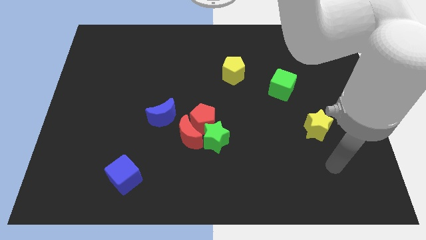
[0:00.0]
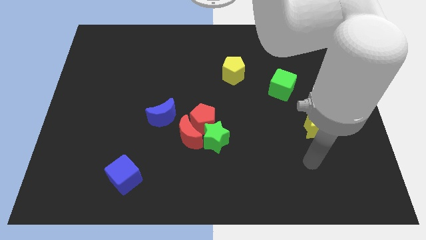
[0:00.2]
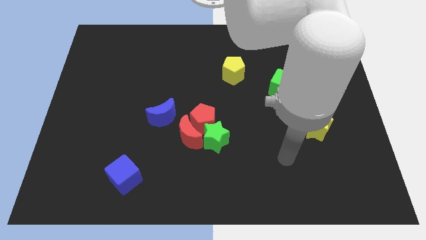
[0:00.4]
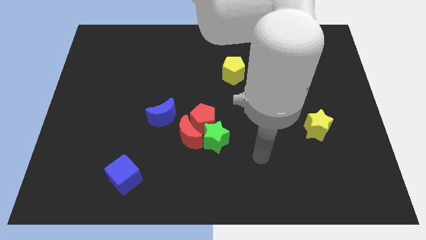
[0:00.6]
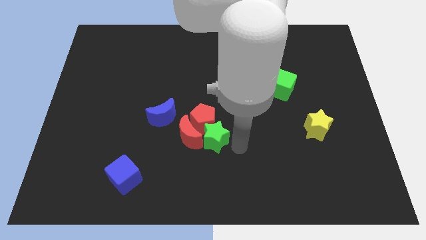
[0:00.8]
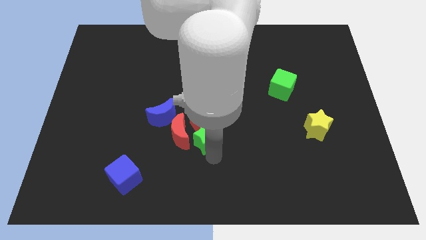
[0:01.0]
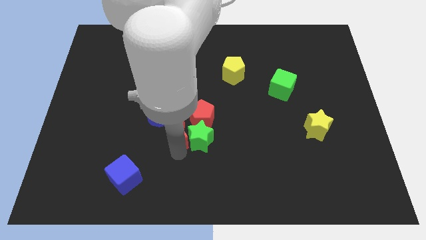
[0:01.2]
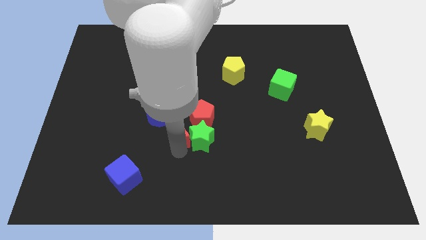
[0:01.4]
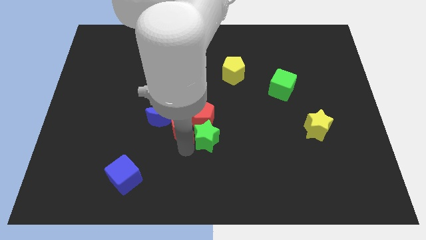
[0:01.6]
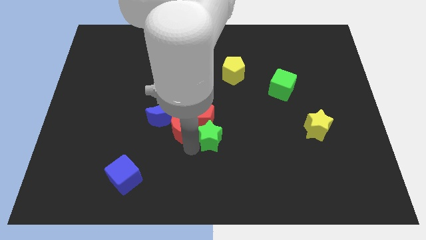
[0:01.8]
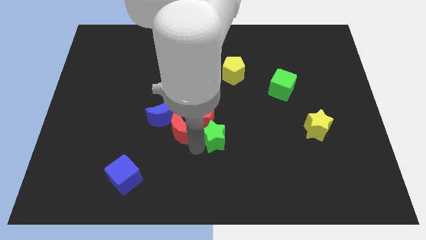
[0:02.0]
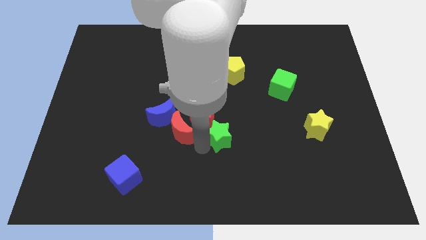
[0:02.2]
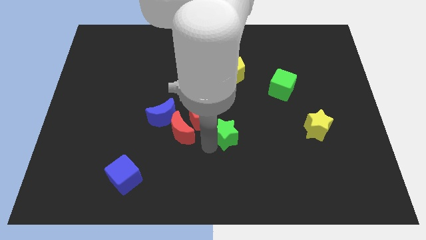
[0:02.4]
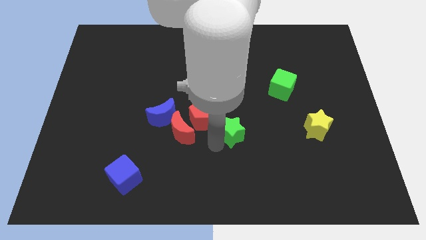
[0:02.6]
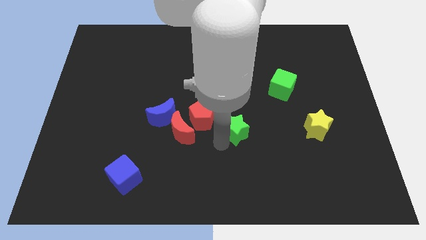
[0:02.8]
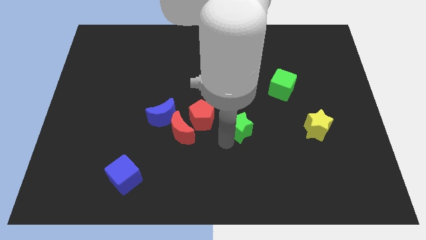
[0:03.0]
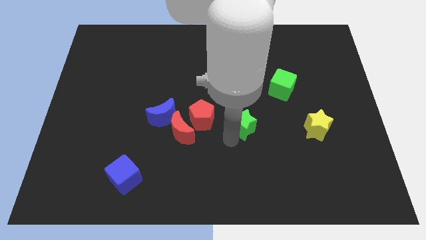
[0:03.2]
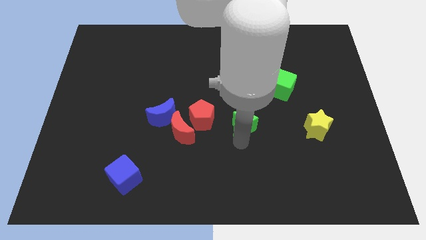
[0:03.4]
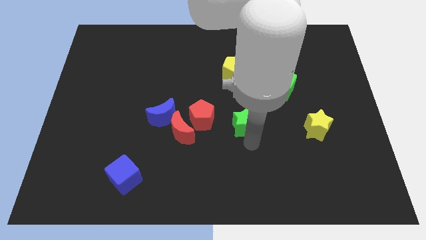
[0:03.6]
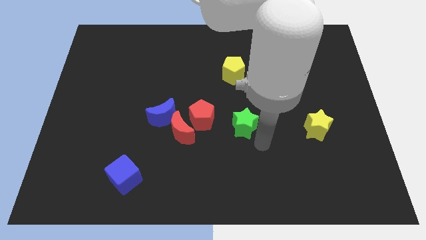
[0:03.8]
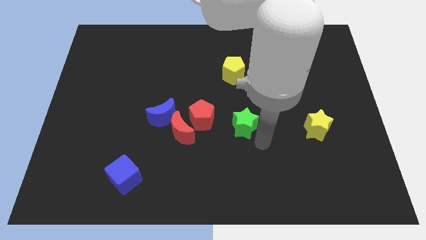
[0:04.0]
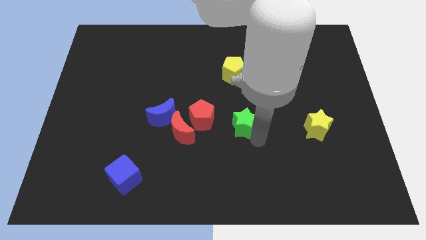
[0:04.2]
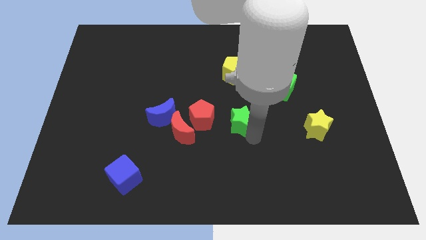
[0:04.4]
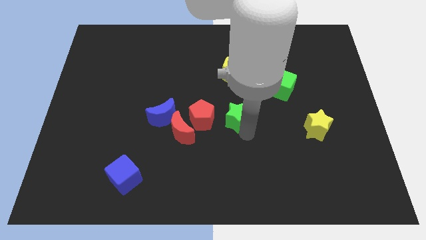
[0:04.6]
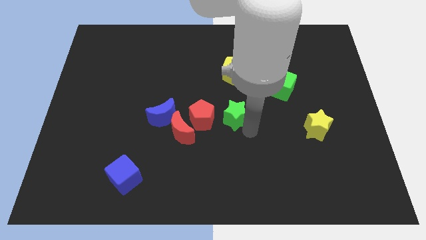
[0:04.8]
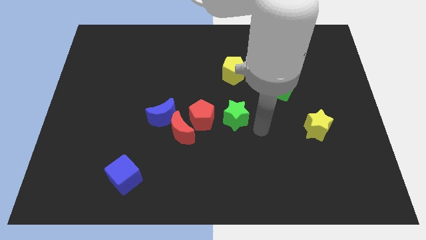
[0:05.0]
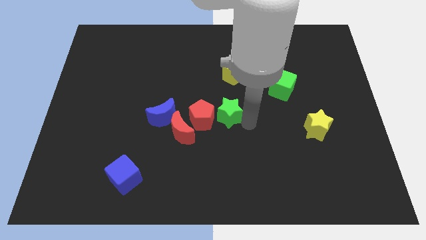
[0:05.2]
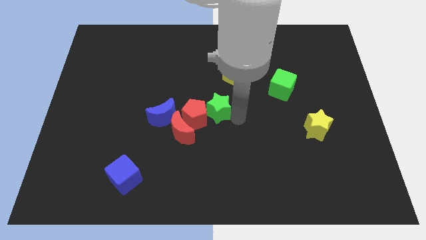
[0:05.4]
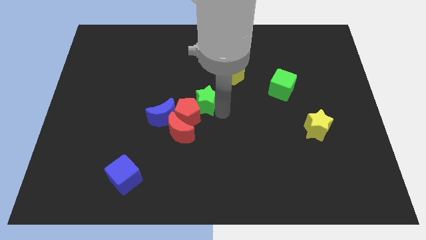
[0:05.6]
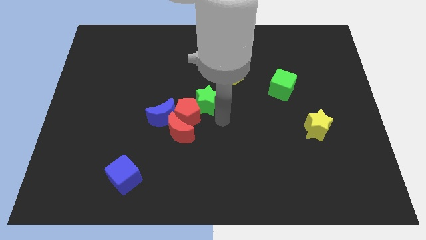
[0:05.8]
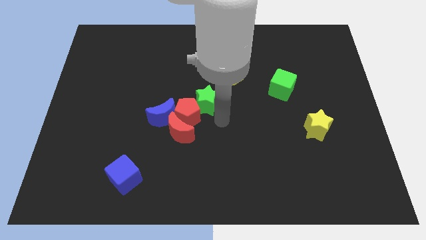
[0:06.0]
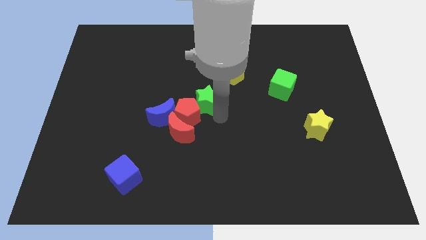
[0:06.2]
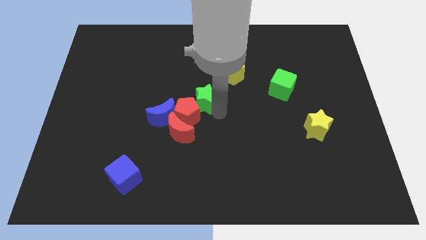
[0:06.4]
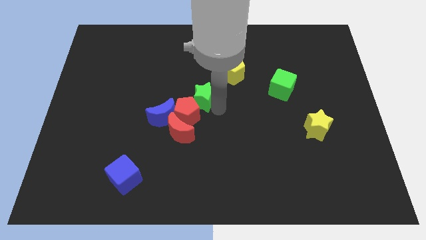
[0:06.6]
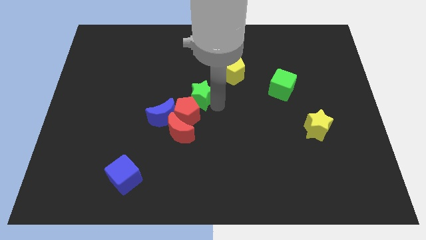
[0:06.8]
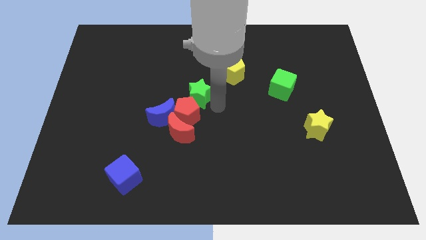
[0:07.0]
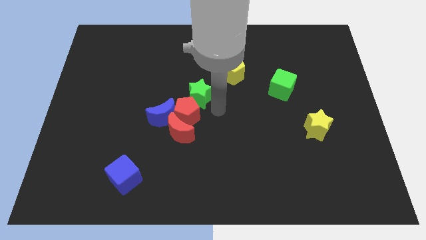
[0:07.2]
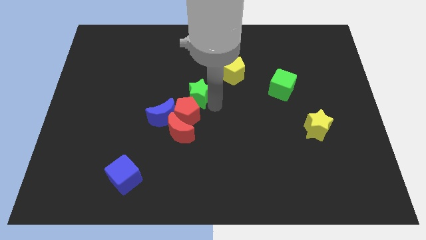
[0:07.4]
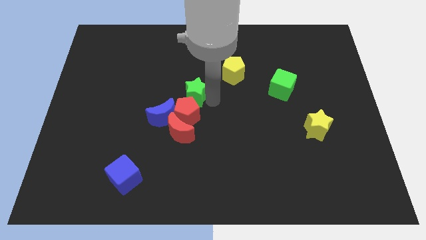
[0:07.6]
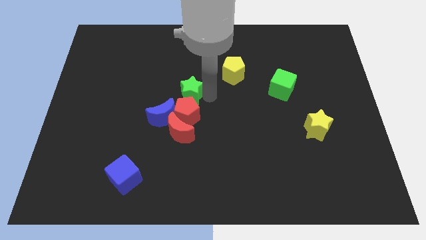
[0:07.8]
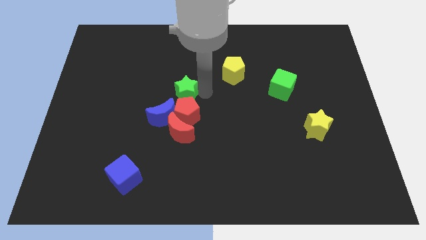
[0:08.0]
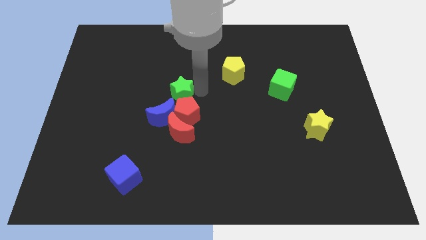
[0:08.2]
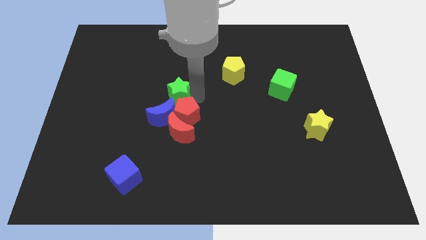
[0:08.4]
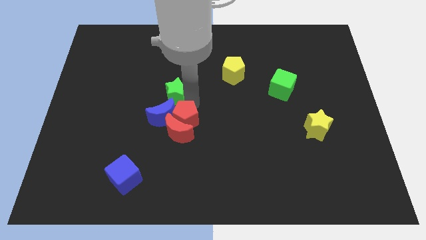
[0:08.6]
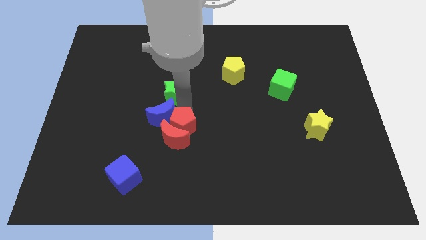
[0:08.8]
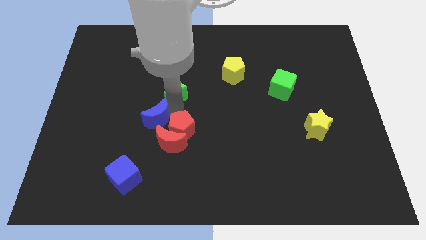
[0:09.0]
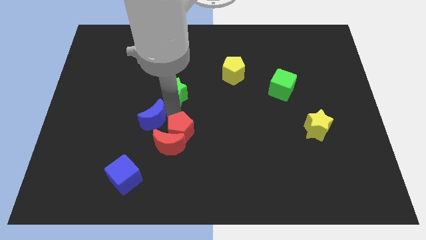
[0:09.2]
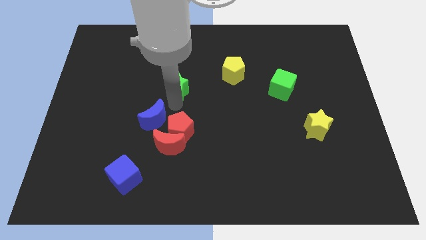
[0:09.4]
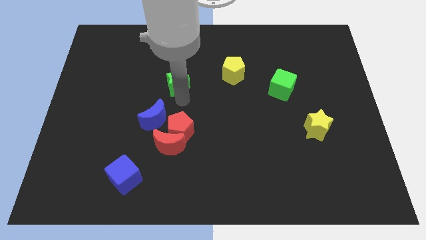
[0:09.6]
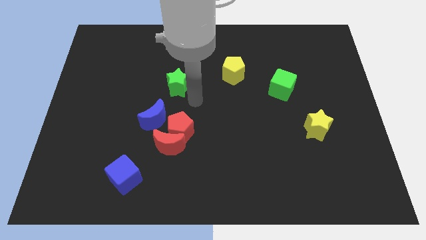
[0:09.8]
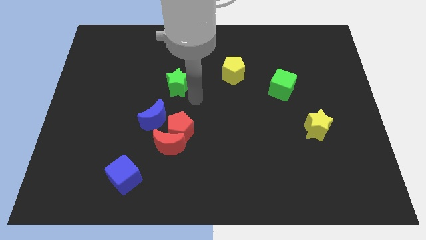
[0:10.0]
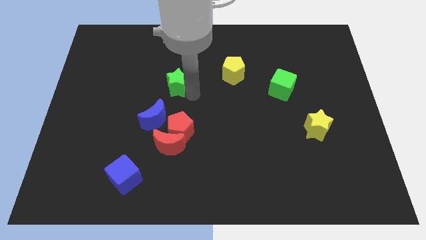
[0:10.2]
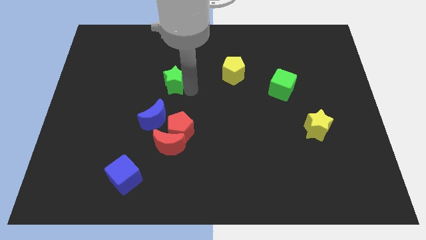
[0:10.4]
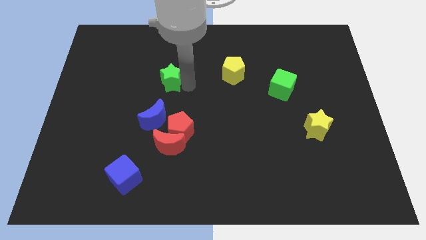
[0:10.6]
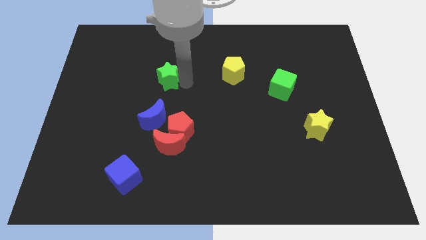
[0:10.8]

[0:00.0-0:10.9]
move the green star diagonally upwards and left

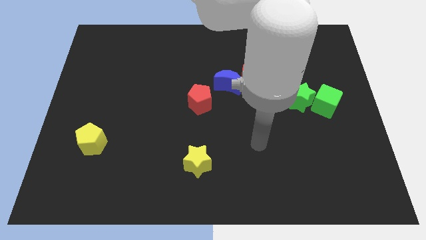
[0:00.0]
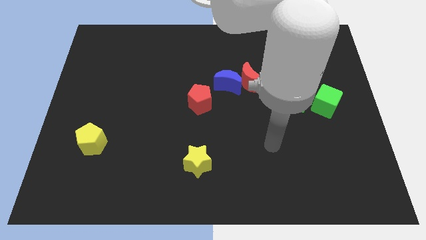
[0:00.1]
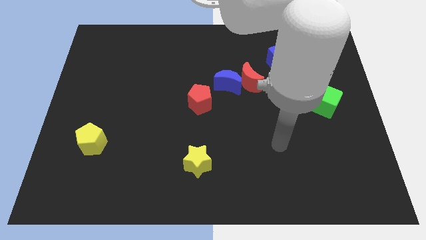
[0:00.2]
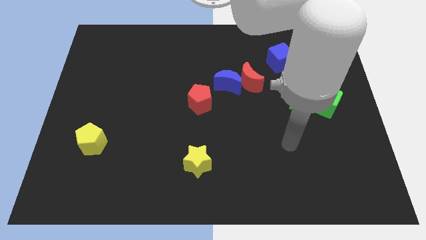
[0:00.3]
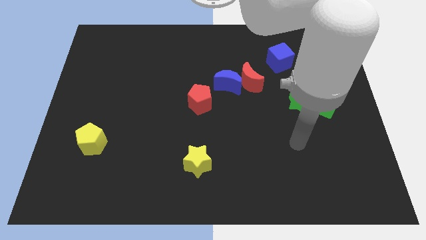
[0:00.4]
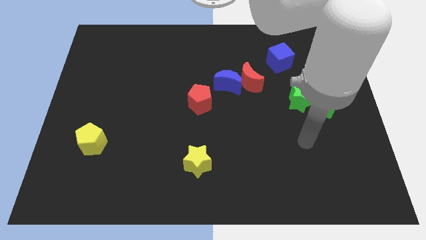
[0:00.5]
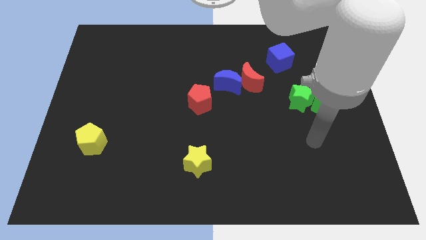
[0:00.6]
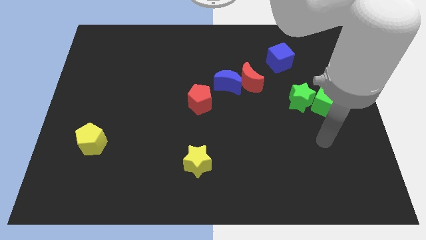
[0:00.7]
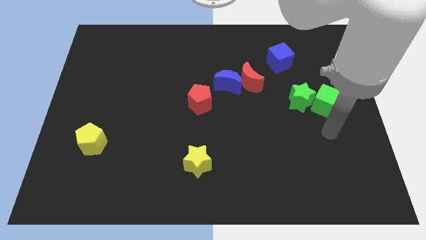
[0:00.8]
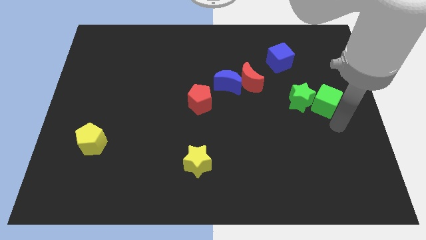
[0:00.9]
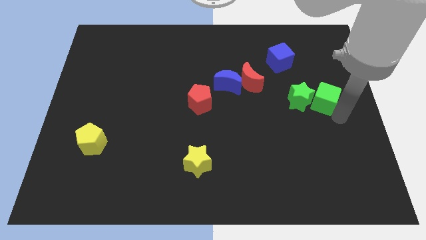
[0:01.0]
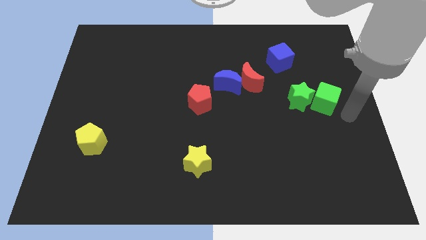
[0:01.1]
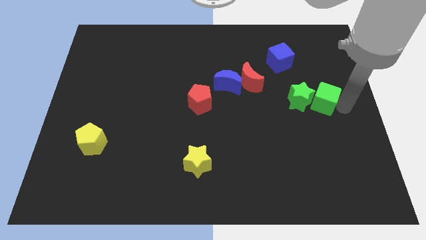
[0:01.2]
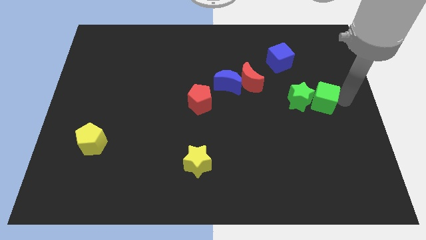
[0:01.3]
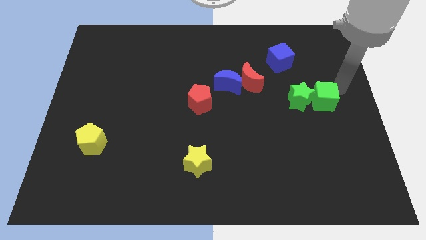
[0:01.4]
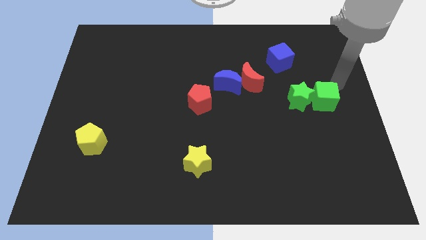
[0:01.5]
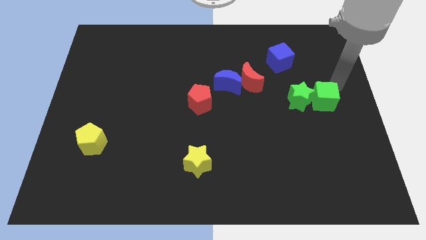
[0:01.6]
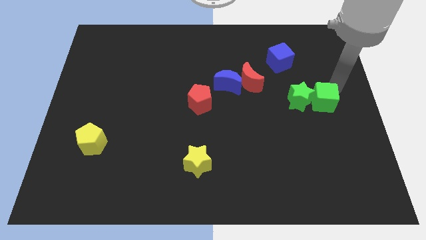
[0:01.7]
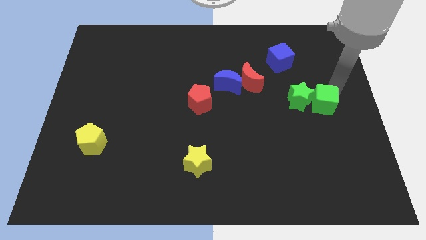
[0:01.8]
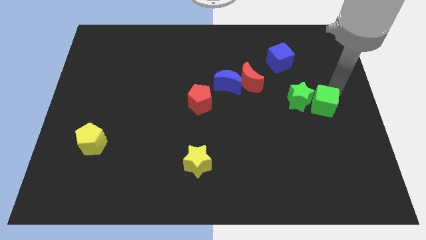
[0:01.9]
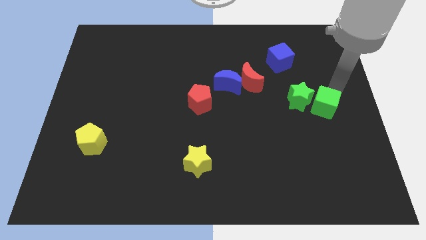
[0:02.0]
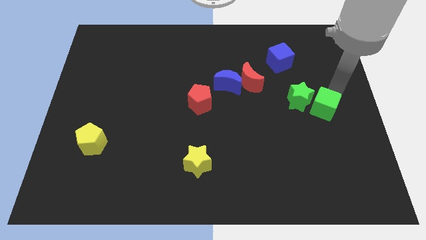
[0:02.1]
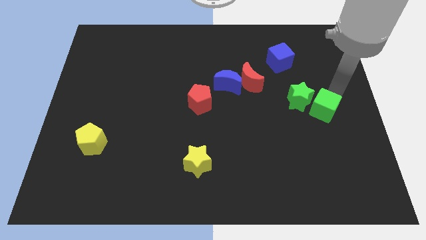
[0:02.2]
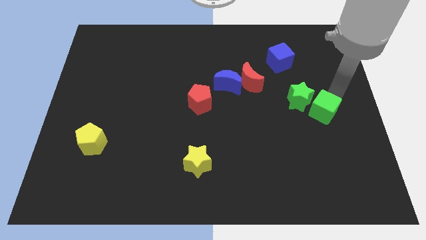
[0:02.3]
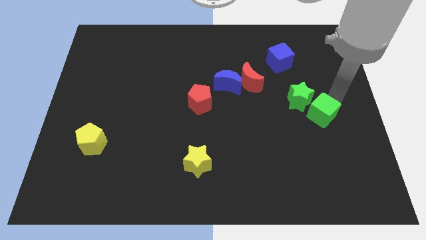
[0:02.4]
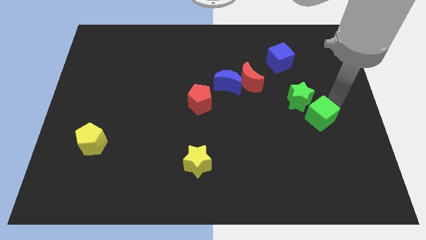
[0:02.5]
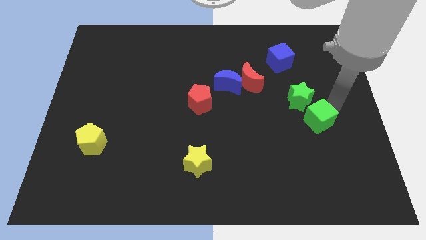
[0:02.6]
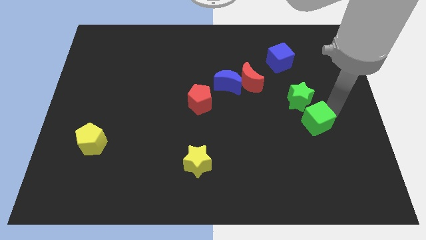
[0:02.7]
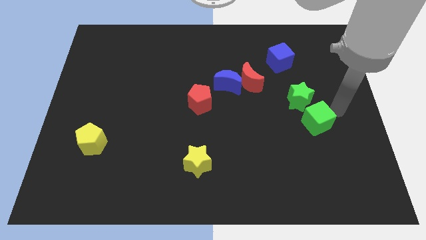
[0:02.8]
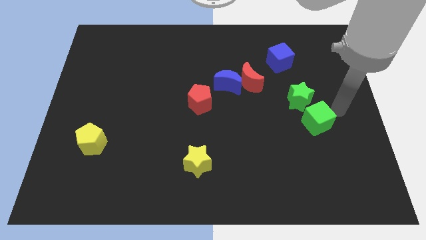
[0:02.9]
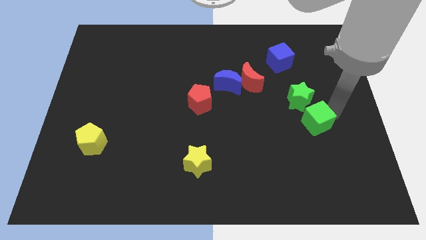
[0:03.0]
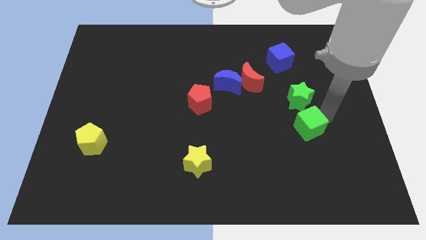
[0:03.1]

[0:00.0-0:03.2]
move the green cube somewhat diagonally down and left
